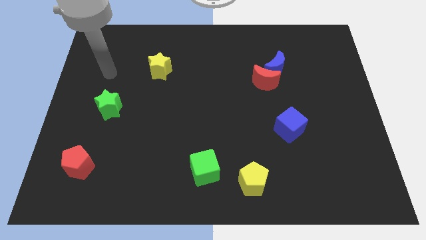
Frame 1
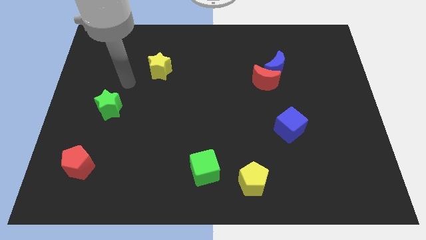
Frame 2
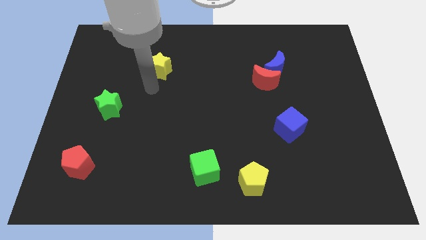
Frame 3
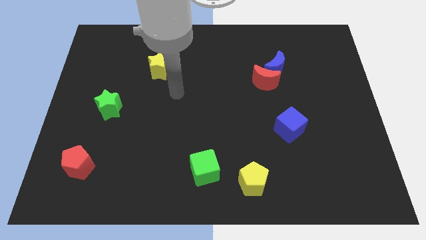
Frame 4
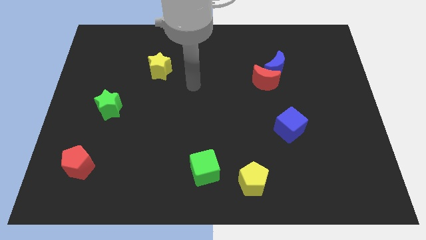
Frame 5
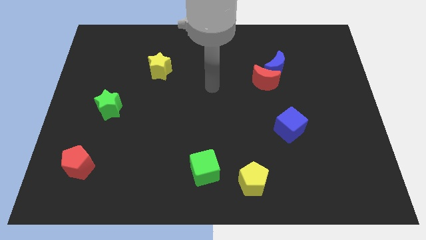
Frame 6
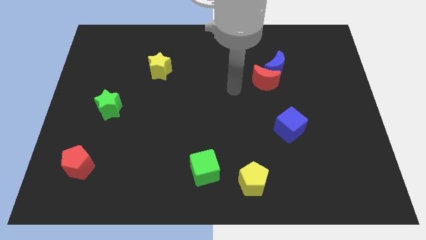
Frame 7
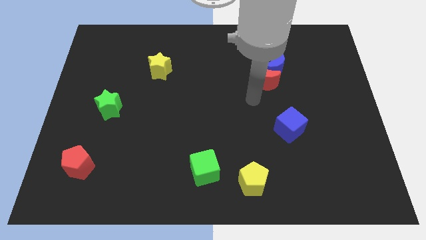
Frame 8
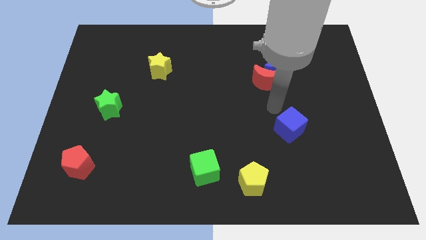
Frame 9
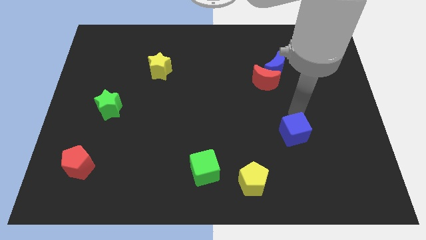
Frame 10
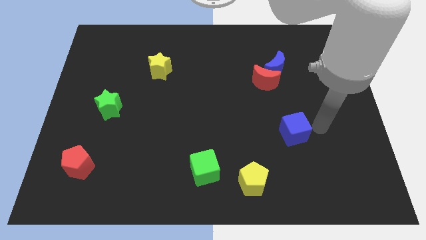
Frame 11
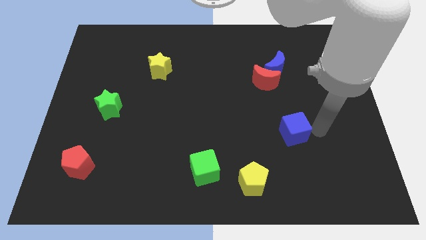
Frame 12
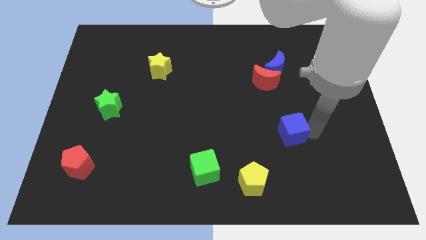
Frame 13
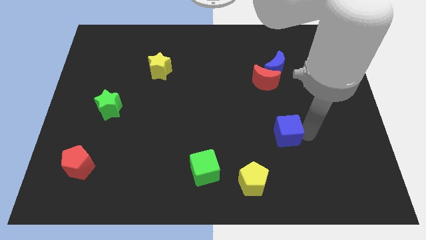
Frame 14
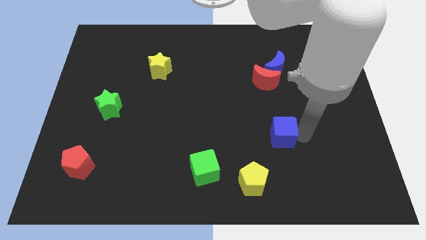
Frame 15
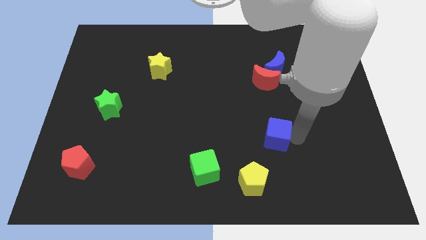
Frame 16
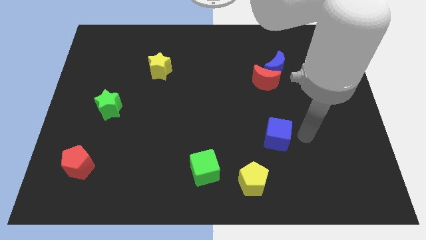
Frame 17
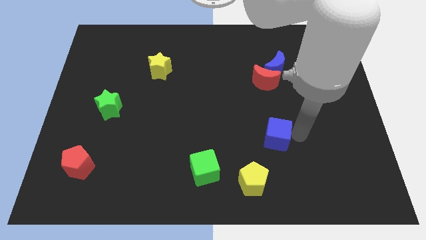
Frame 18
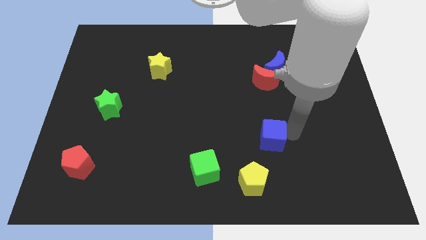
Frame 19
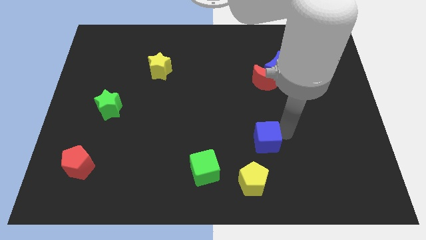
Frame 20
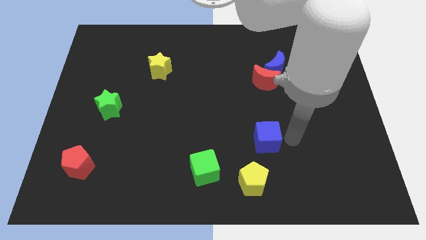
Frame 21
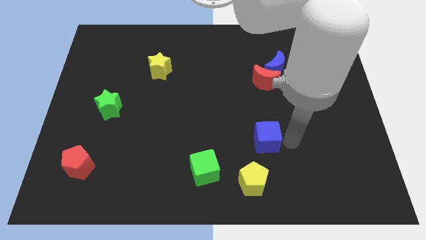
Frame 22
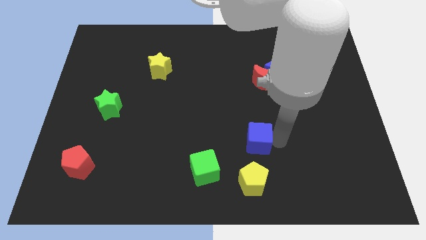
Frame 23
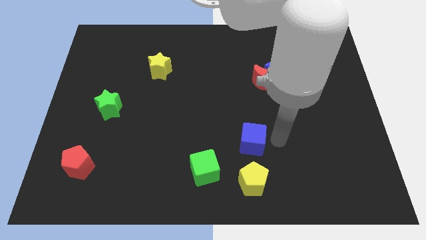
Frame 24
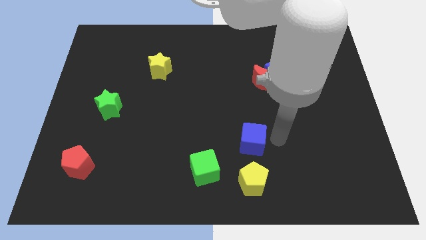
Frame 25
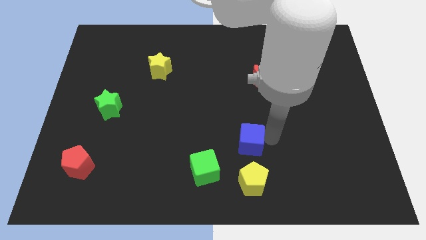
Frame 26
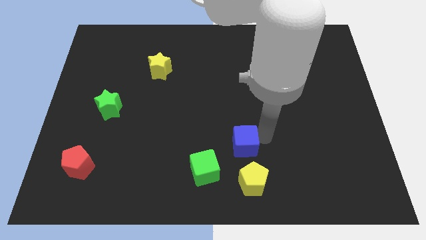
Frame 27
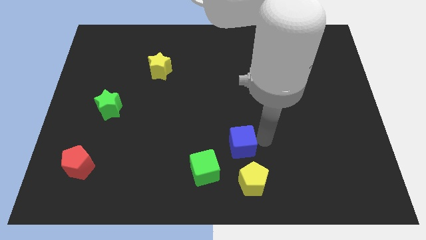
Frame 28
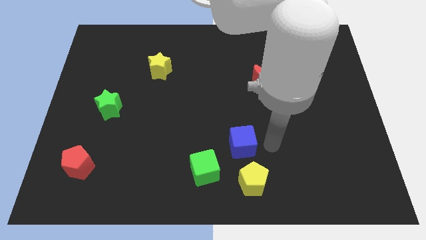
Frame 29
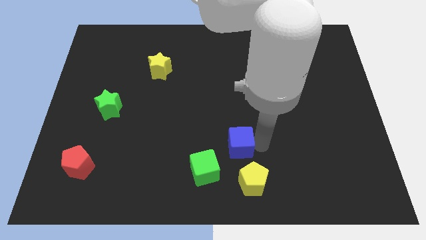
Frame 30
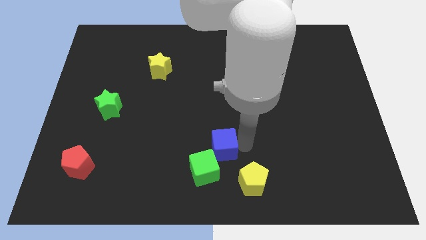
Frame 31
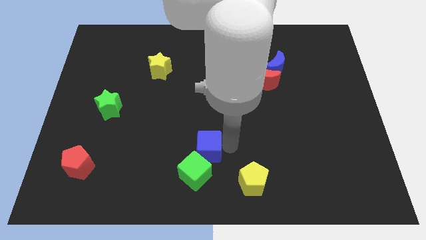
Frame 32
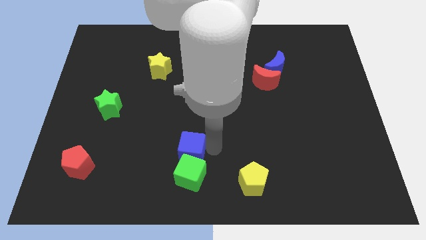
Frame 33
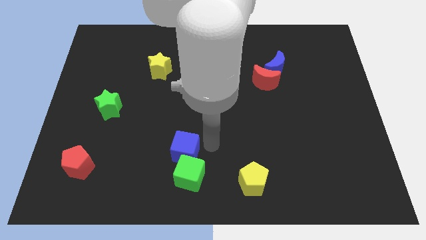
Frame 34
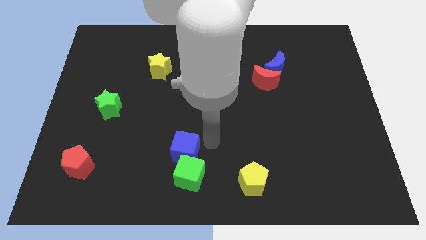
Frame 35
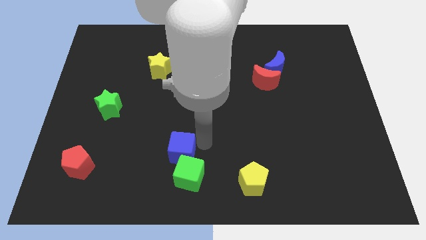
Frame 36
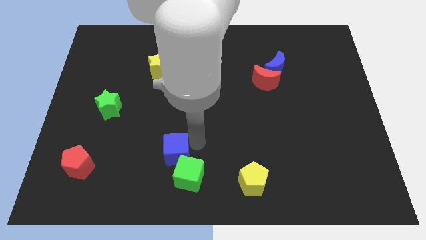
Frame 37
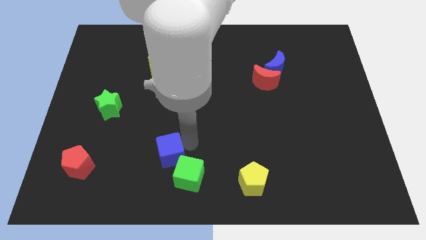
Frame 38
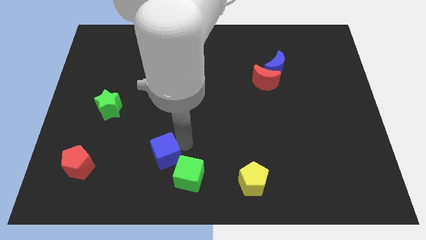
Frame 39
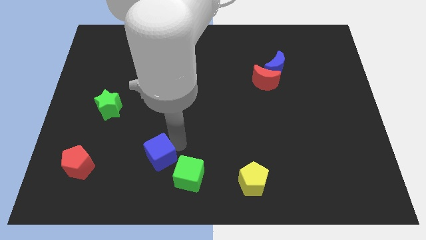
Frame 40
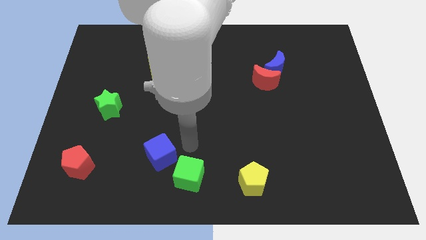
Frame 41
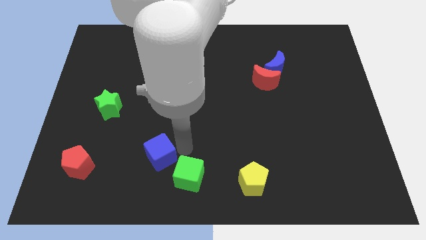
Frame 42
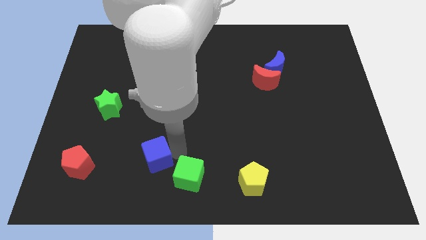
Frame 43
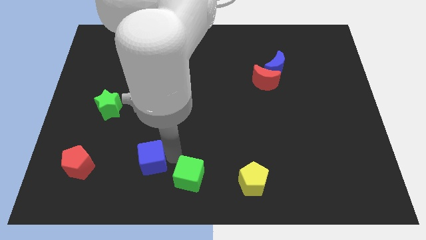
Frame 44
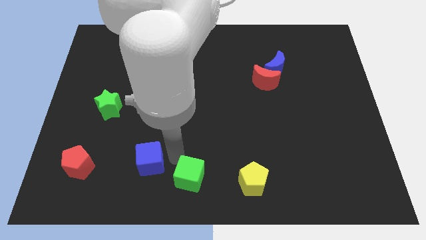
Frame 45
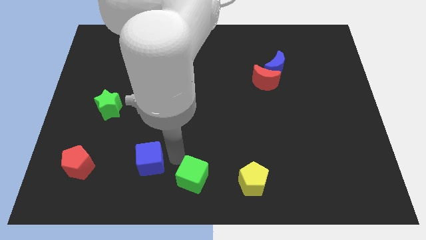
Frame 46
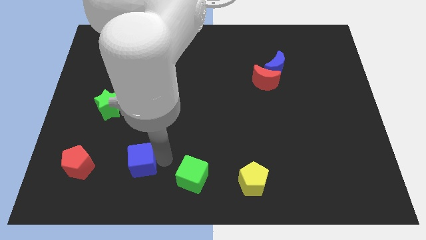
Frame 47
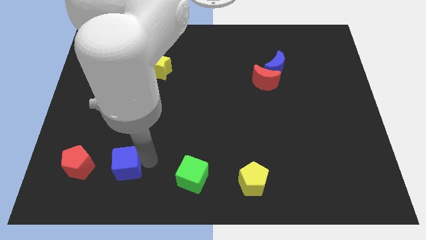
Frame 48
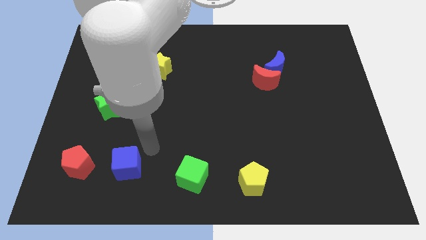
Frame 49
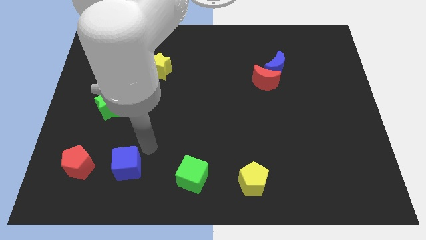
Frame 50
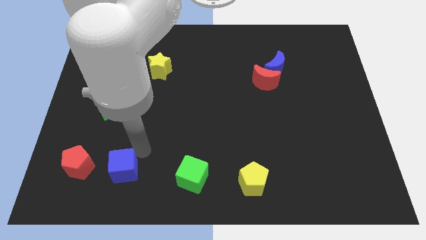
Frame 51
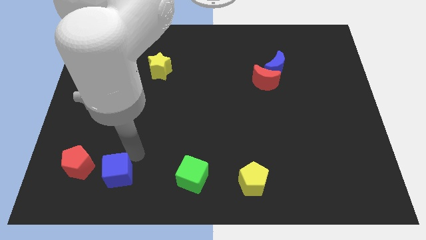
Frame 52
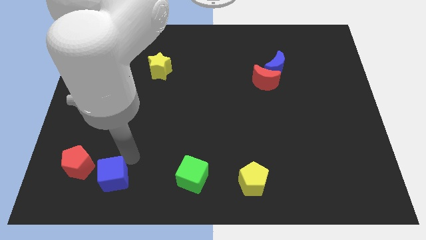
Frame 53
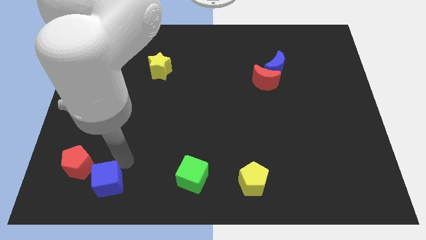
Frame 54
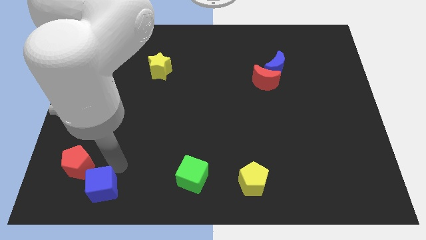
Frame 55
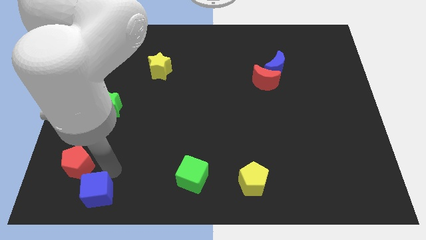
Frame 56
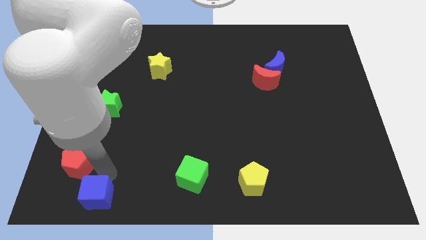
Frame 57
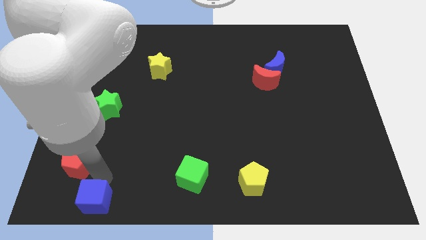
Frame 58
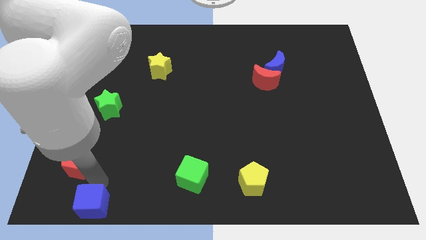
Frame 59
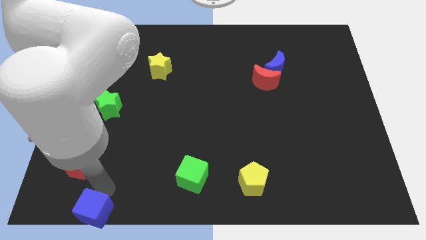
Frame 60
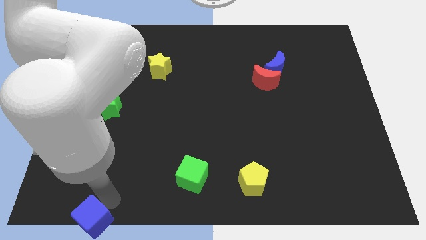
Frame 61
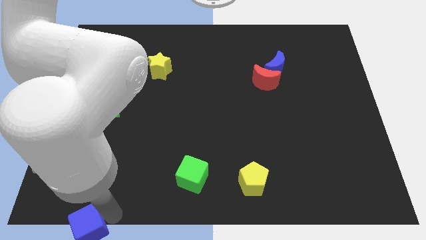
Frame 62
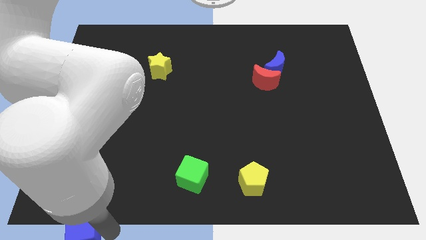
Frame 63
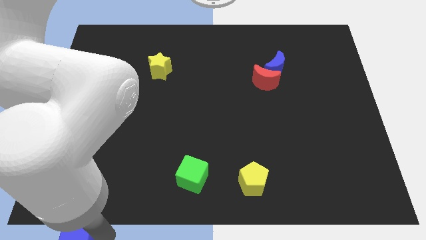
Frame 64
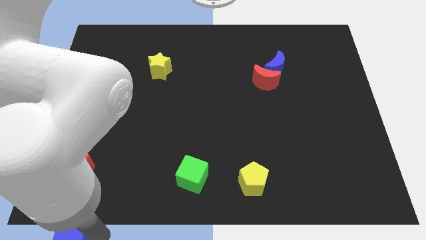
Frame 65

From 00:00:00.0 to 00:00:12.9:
push the blue cube to the bottom left of the board
